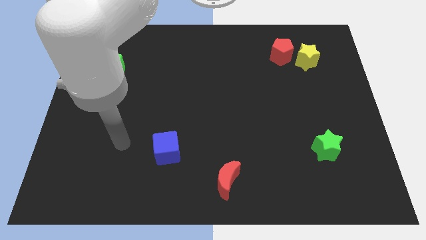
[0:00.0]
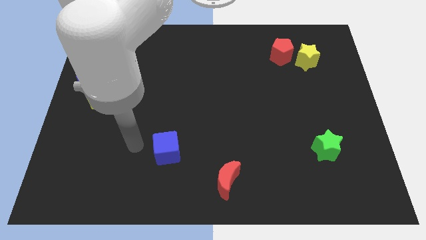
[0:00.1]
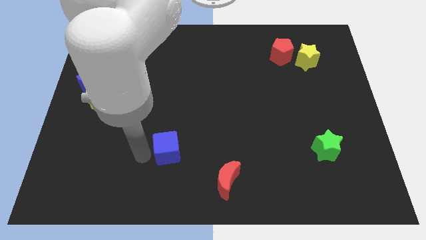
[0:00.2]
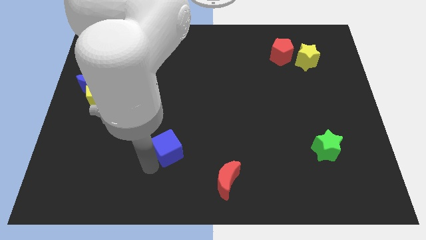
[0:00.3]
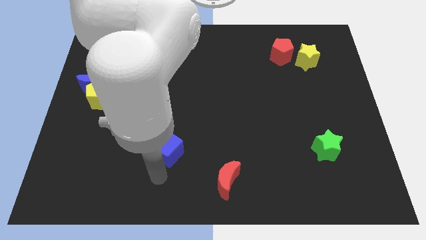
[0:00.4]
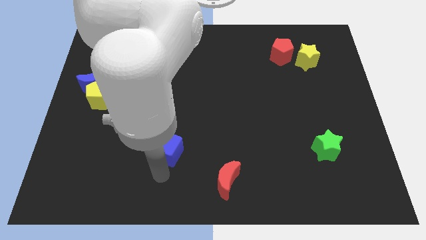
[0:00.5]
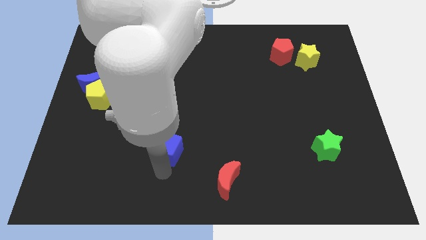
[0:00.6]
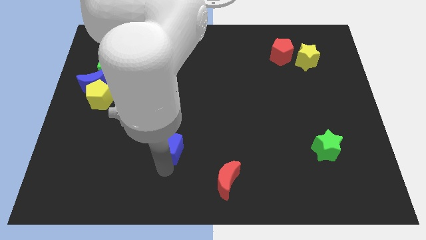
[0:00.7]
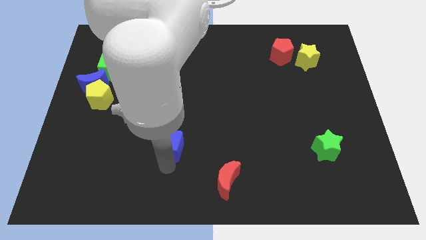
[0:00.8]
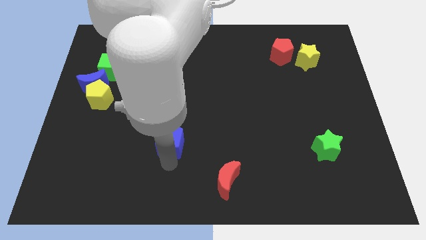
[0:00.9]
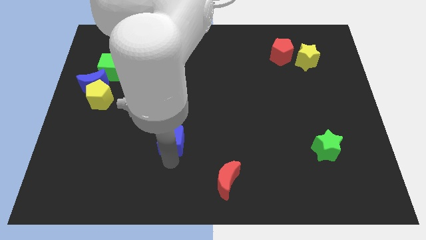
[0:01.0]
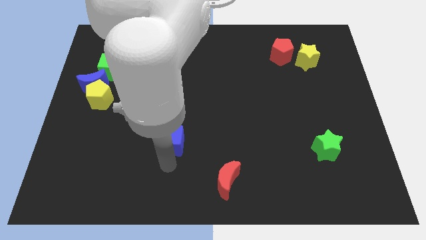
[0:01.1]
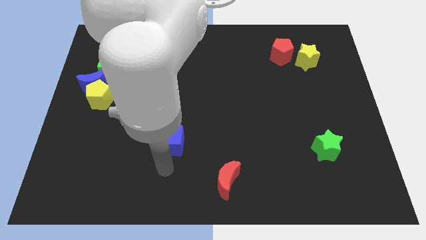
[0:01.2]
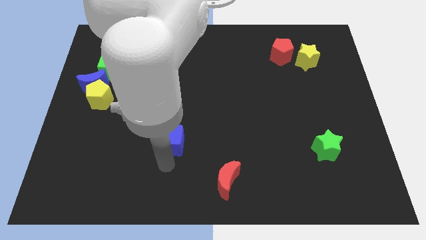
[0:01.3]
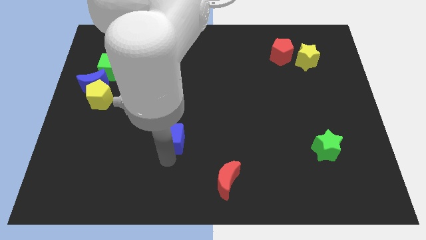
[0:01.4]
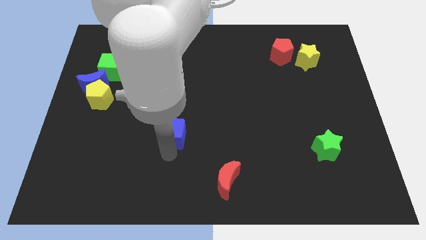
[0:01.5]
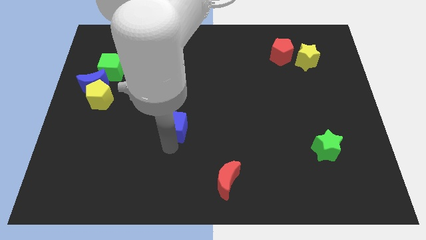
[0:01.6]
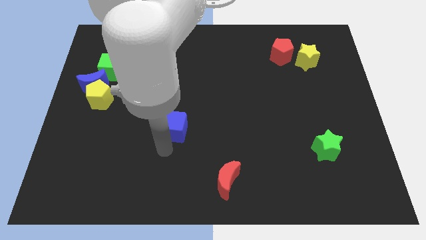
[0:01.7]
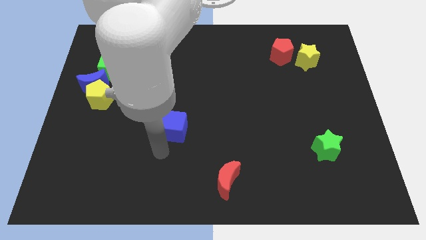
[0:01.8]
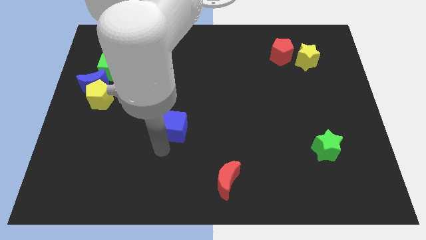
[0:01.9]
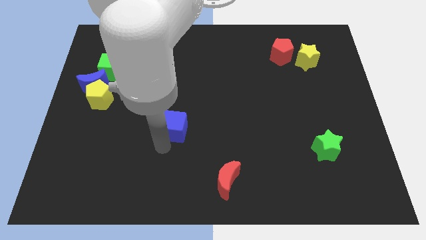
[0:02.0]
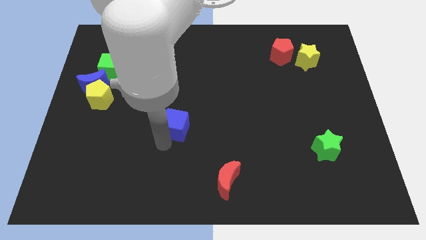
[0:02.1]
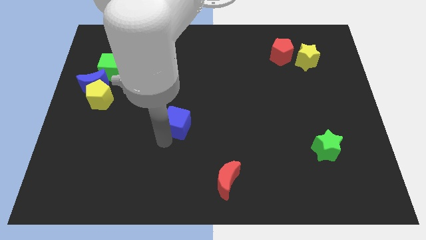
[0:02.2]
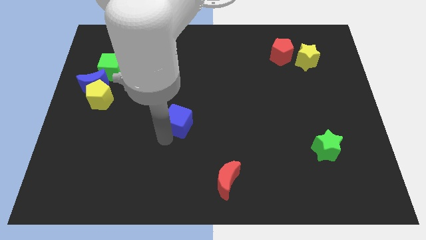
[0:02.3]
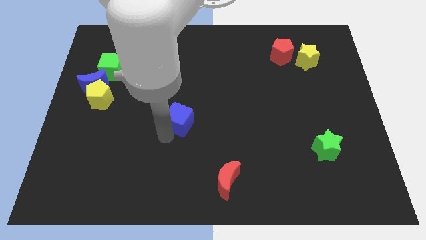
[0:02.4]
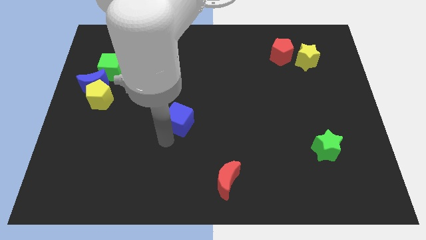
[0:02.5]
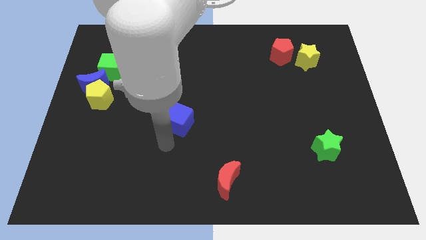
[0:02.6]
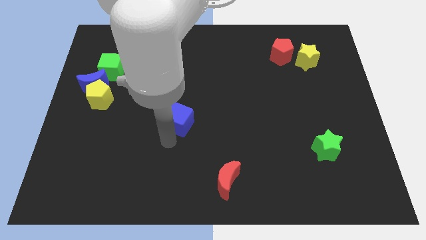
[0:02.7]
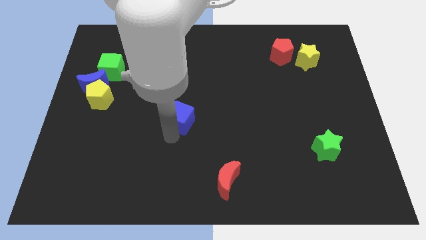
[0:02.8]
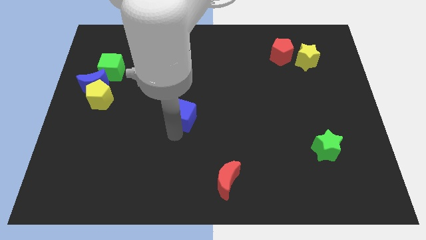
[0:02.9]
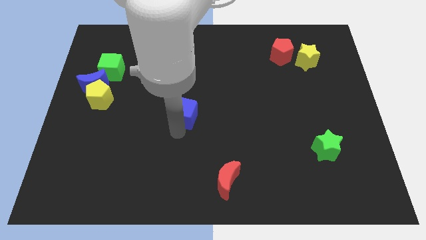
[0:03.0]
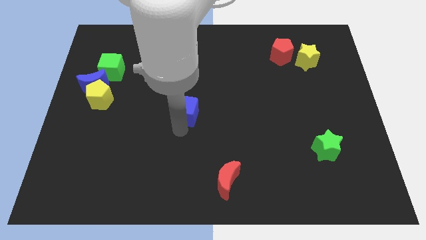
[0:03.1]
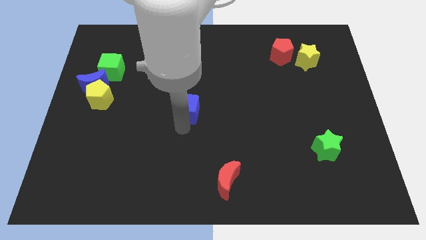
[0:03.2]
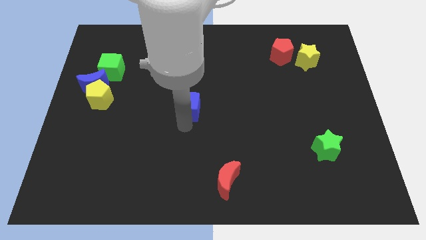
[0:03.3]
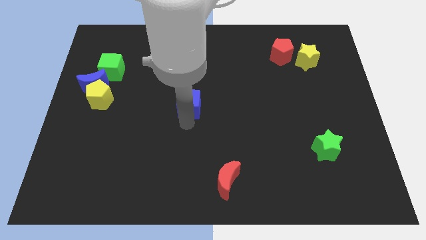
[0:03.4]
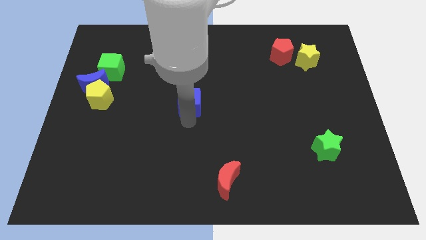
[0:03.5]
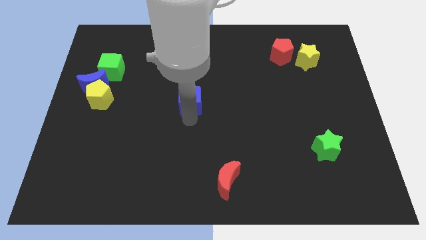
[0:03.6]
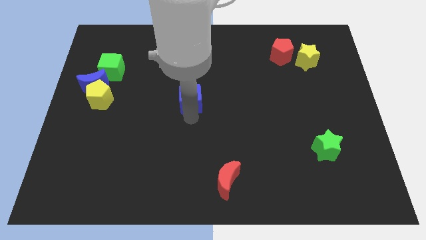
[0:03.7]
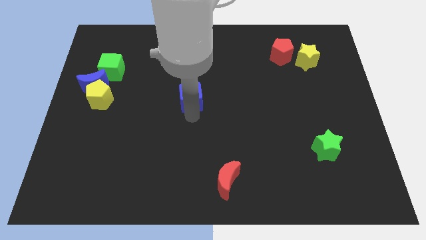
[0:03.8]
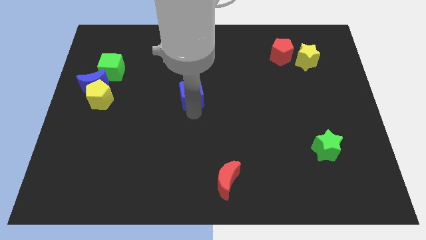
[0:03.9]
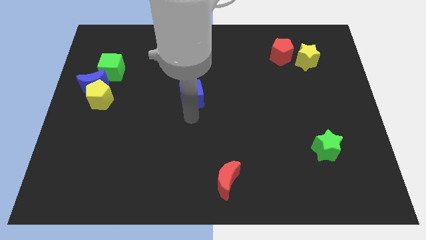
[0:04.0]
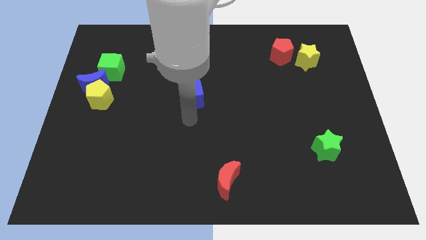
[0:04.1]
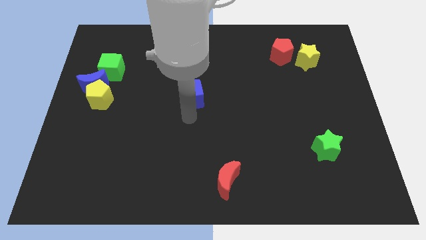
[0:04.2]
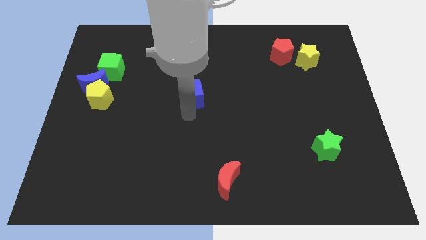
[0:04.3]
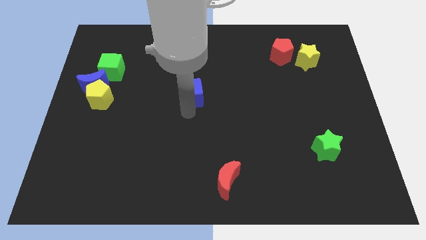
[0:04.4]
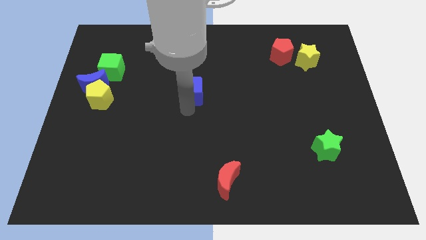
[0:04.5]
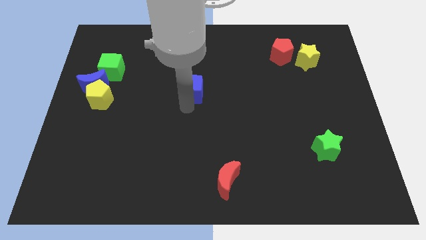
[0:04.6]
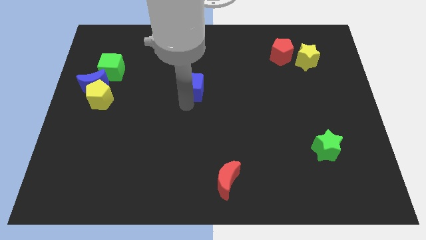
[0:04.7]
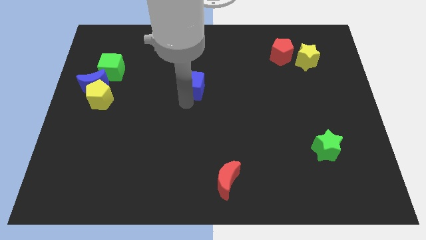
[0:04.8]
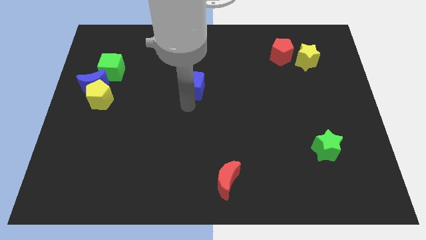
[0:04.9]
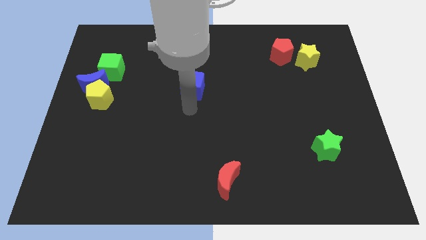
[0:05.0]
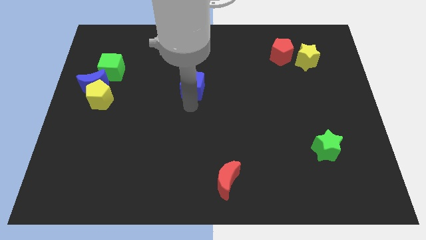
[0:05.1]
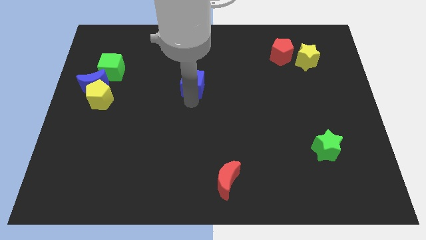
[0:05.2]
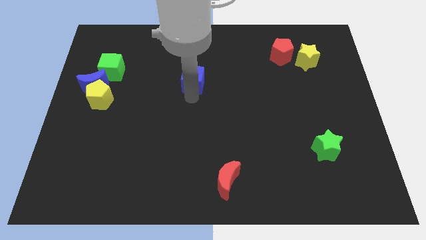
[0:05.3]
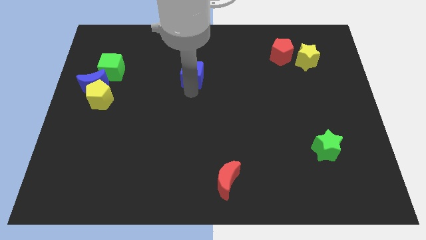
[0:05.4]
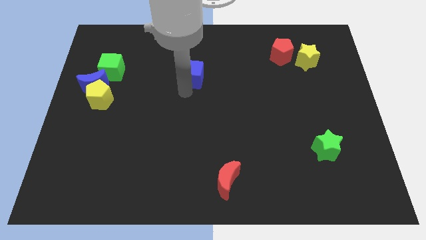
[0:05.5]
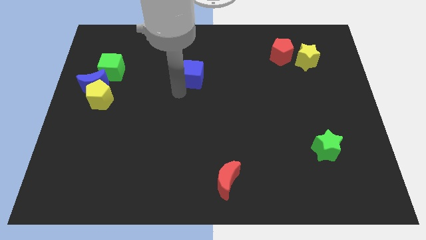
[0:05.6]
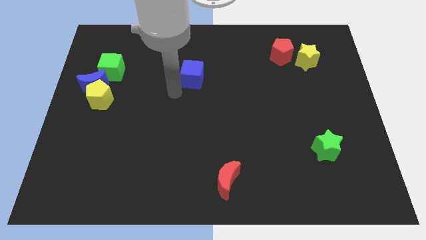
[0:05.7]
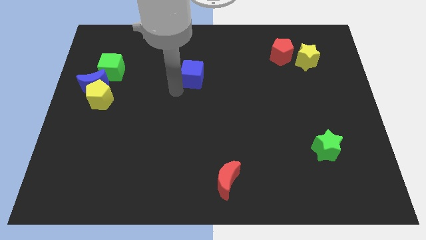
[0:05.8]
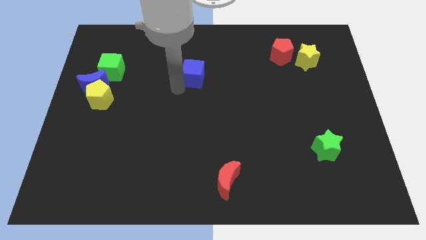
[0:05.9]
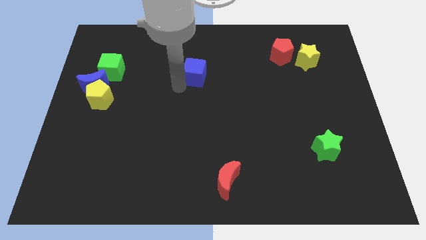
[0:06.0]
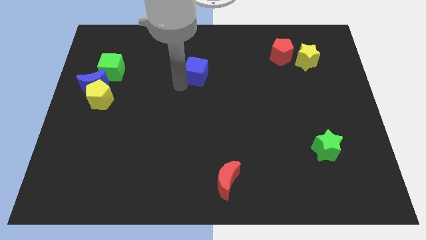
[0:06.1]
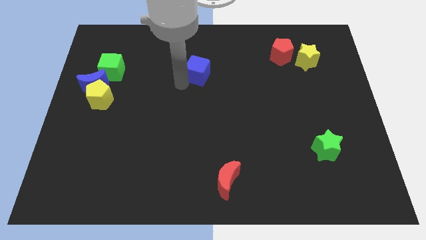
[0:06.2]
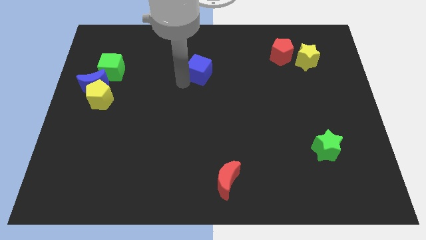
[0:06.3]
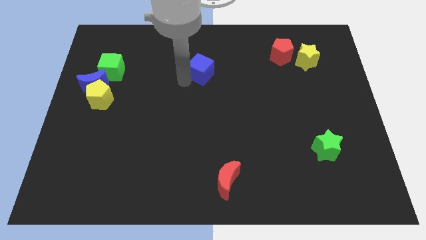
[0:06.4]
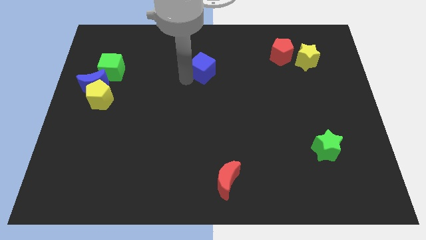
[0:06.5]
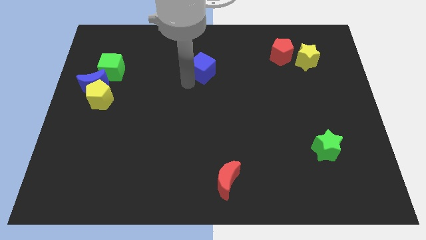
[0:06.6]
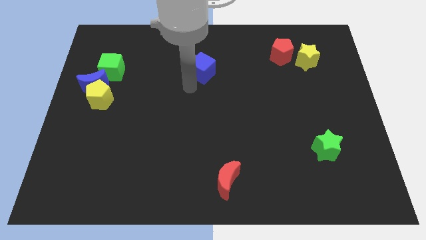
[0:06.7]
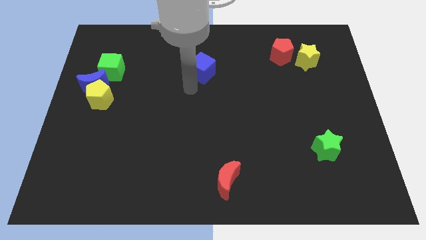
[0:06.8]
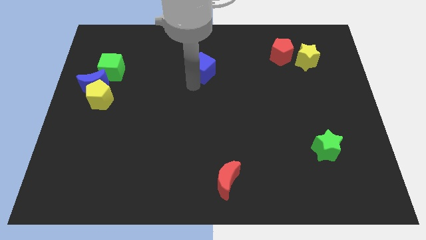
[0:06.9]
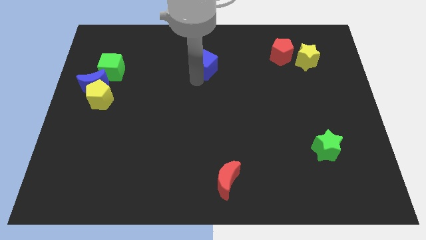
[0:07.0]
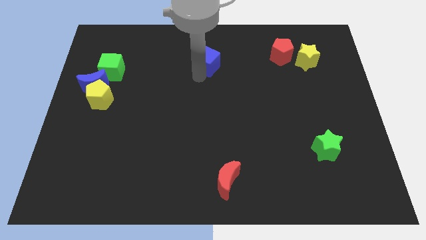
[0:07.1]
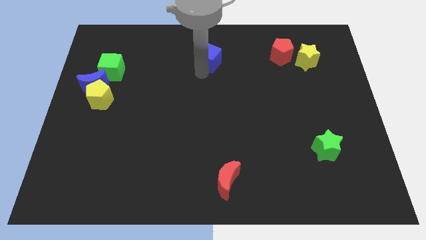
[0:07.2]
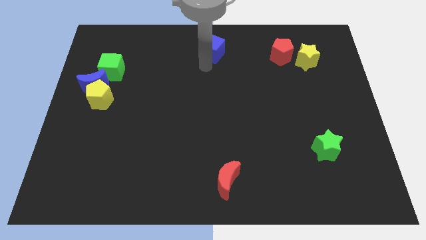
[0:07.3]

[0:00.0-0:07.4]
put the blue cube to the top
